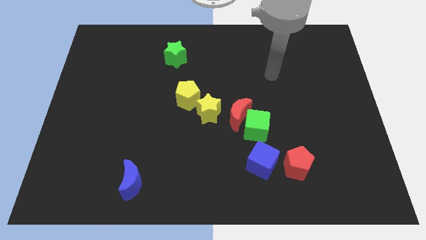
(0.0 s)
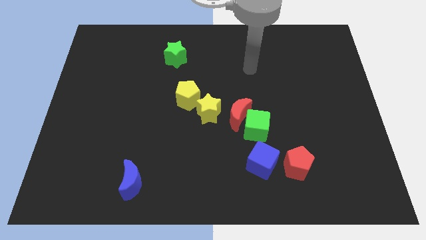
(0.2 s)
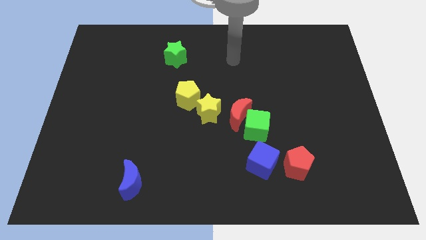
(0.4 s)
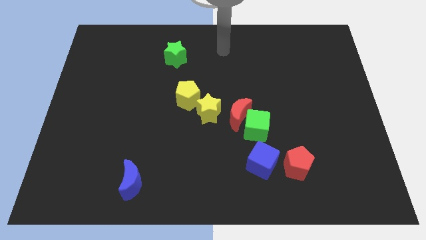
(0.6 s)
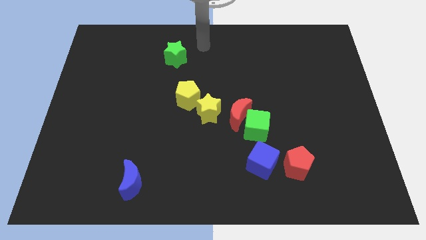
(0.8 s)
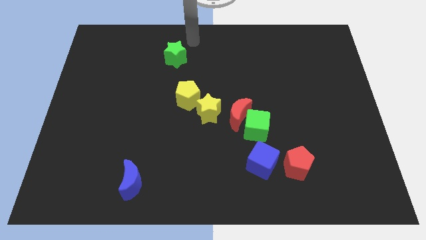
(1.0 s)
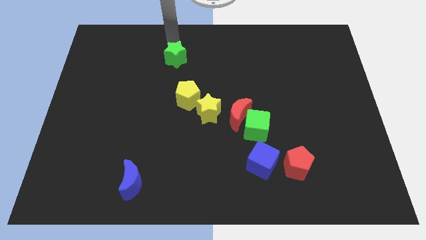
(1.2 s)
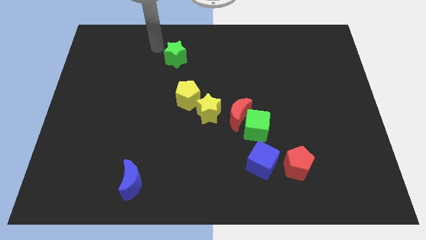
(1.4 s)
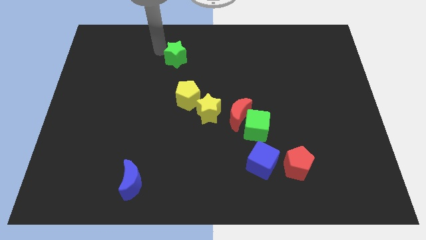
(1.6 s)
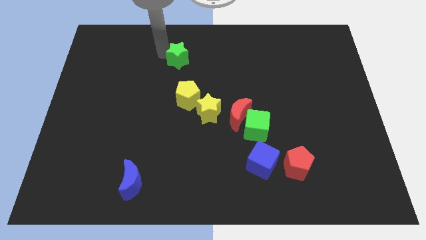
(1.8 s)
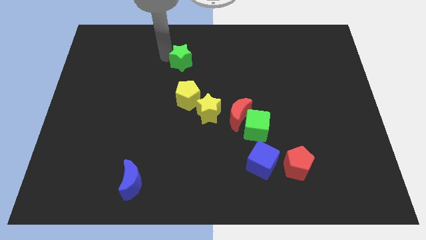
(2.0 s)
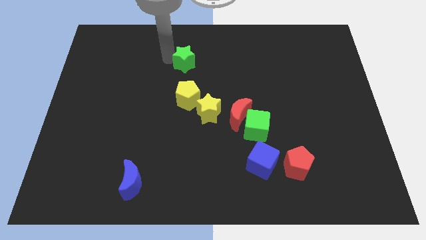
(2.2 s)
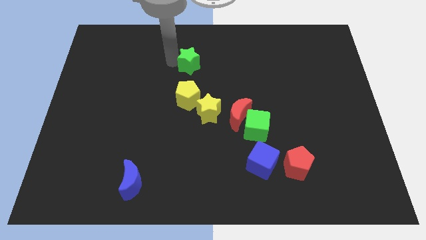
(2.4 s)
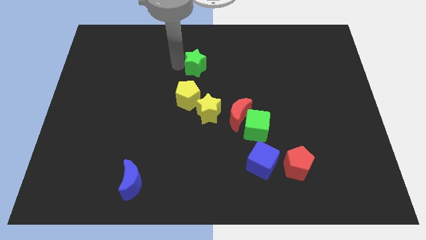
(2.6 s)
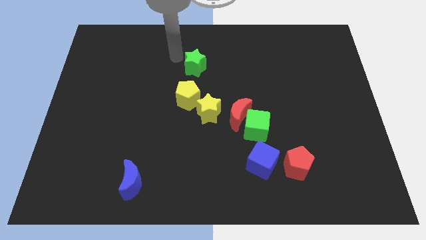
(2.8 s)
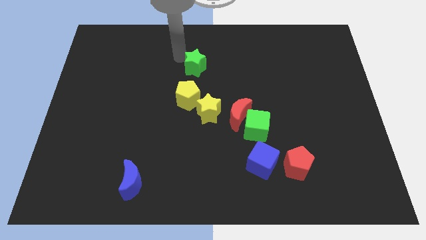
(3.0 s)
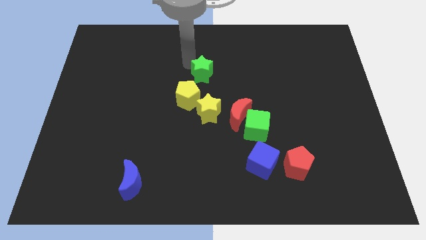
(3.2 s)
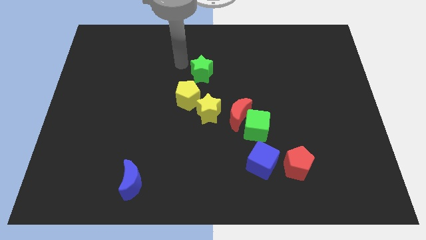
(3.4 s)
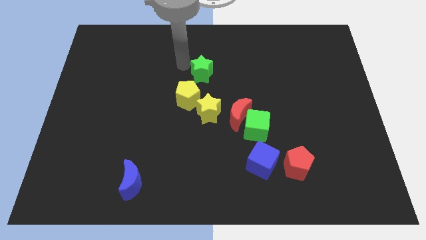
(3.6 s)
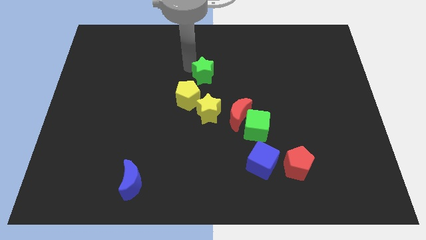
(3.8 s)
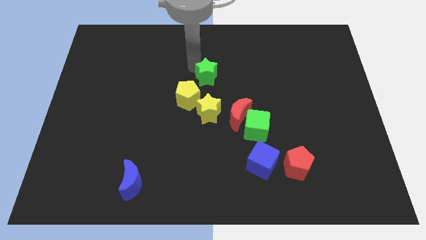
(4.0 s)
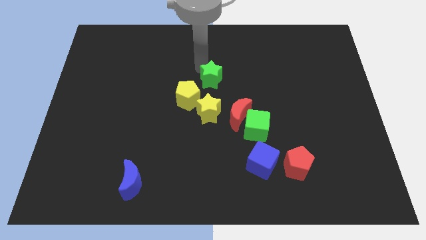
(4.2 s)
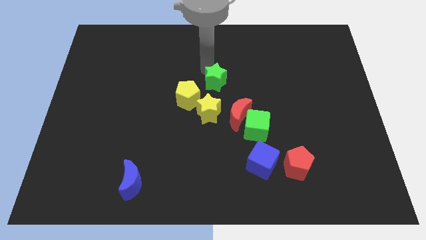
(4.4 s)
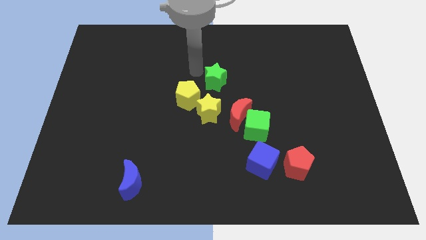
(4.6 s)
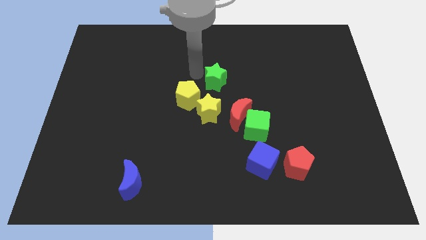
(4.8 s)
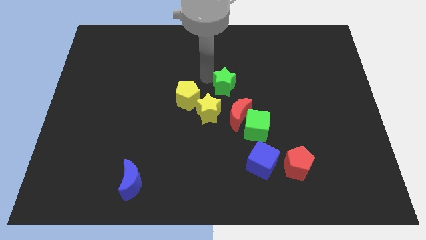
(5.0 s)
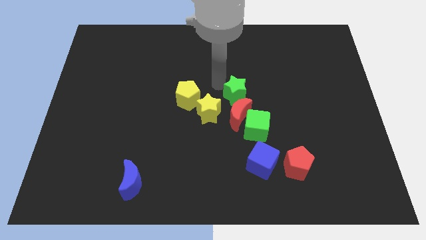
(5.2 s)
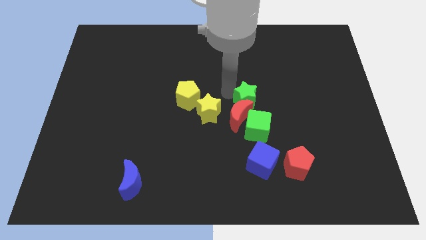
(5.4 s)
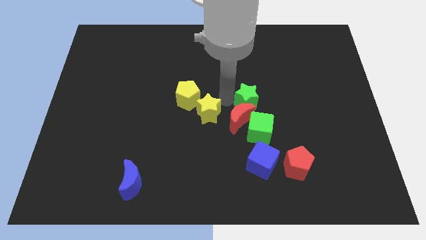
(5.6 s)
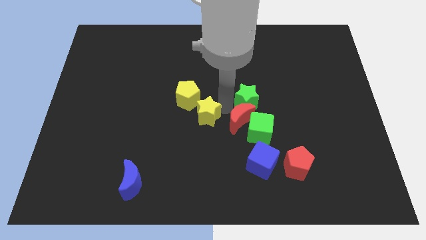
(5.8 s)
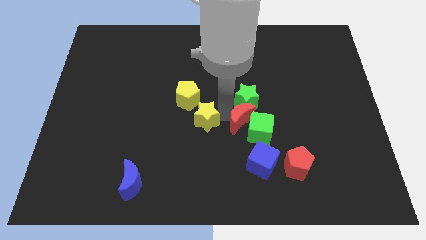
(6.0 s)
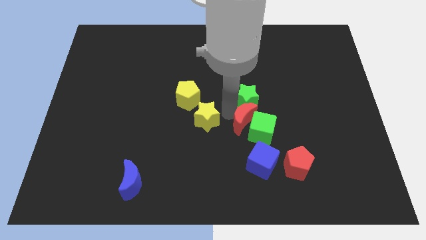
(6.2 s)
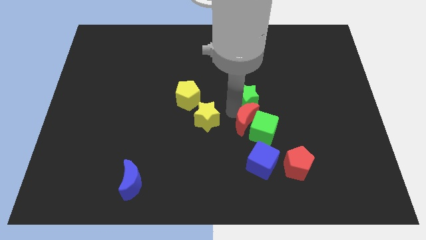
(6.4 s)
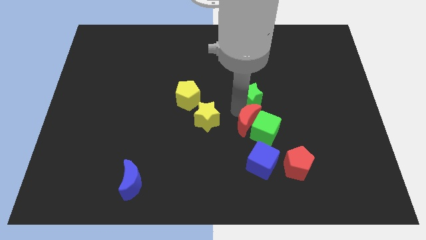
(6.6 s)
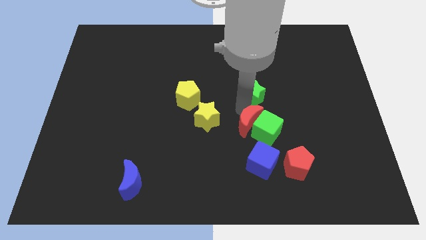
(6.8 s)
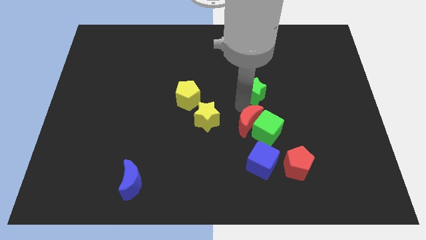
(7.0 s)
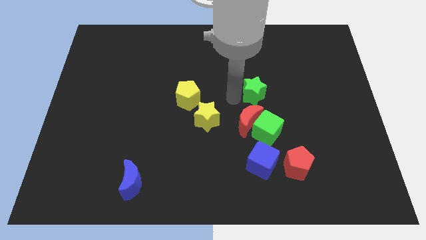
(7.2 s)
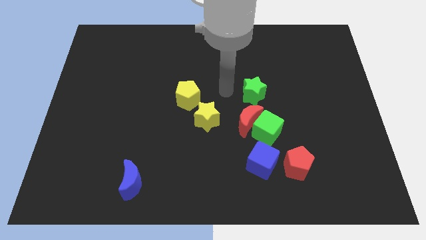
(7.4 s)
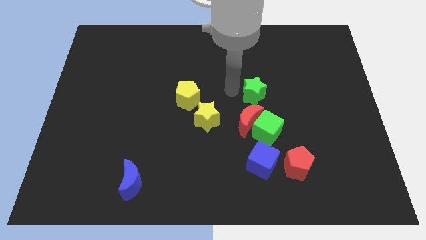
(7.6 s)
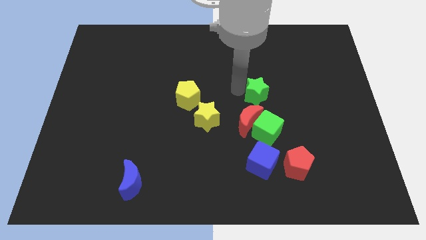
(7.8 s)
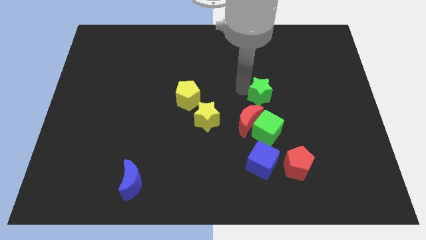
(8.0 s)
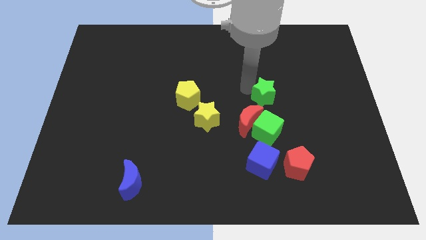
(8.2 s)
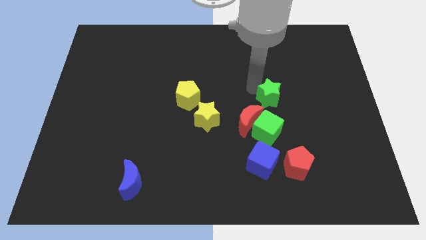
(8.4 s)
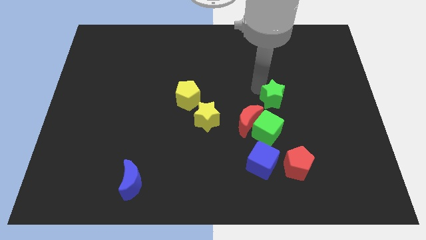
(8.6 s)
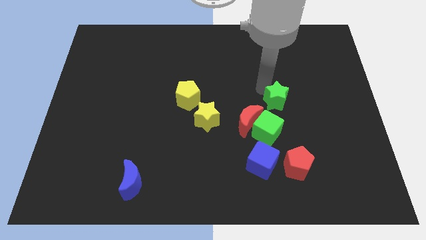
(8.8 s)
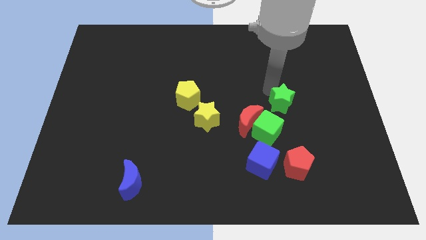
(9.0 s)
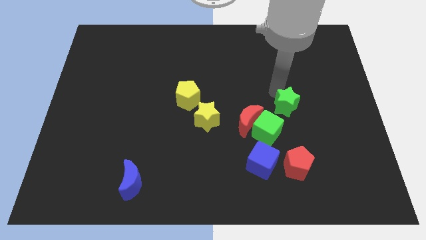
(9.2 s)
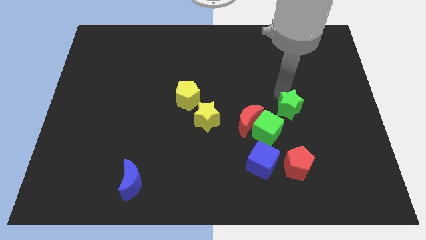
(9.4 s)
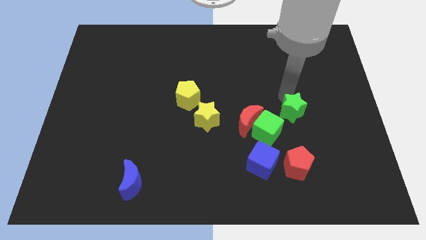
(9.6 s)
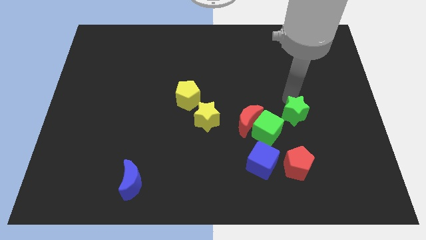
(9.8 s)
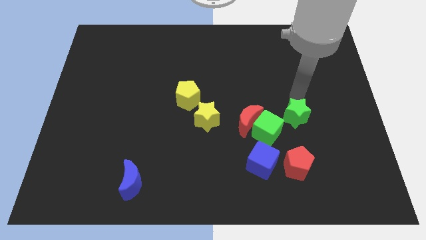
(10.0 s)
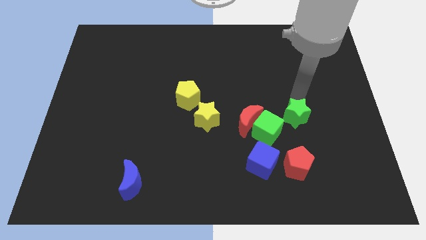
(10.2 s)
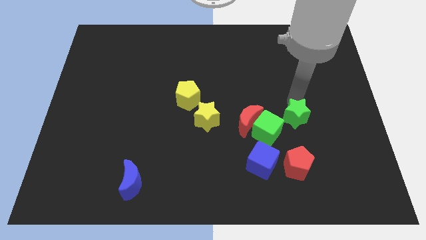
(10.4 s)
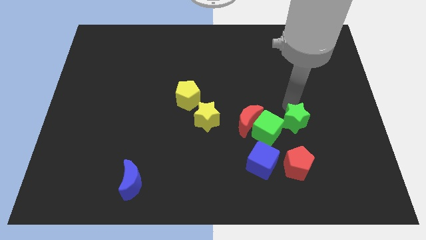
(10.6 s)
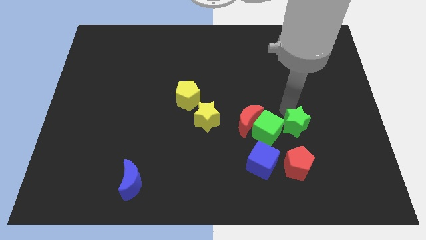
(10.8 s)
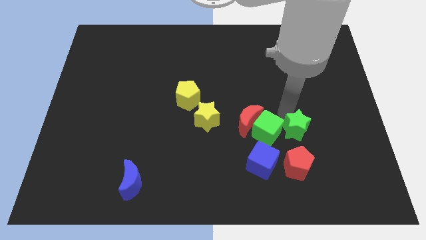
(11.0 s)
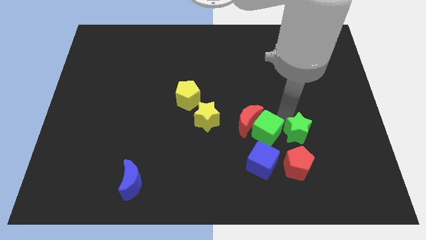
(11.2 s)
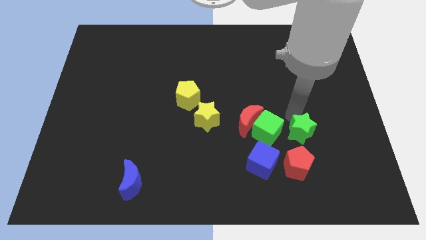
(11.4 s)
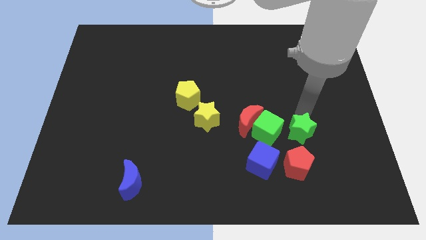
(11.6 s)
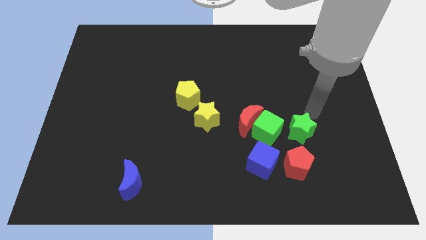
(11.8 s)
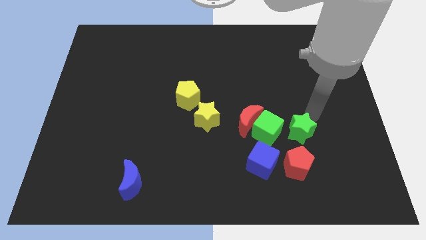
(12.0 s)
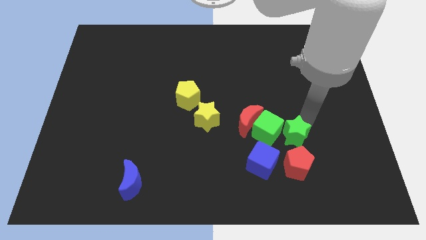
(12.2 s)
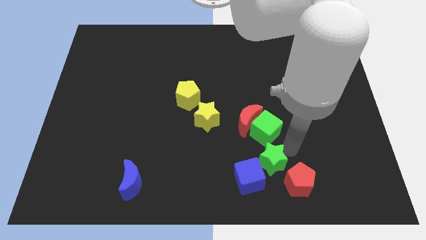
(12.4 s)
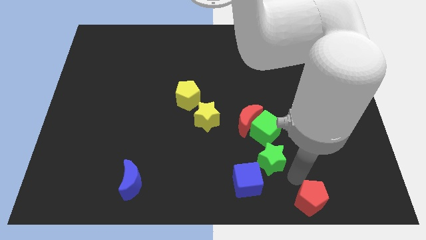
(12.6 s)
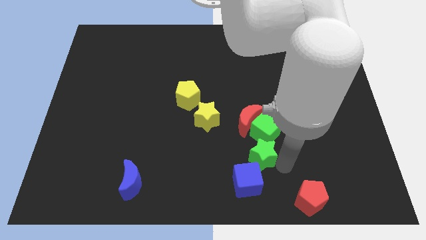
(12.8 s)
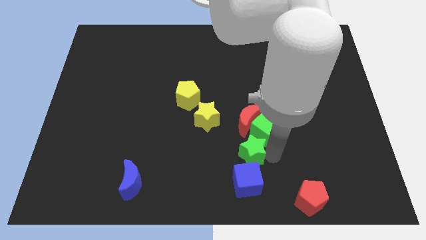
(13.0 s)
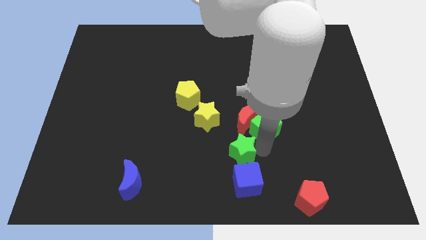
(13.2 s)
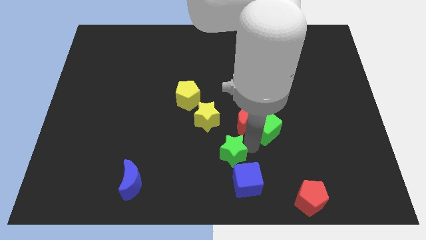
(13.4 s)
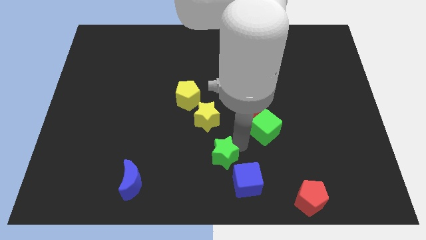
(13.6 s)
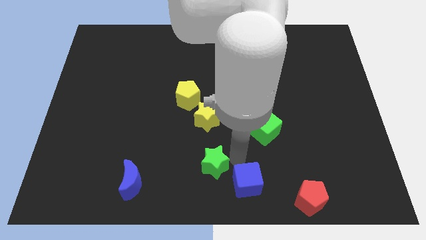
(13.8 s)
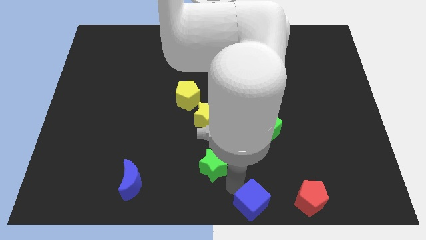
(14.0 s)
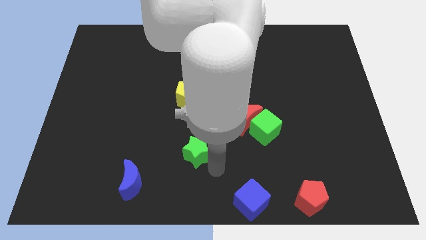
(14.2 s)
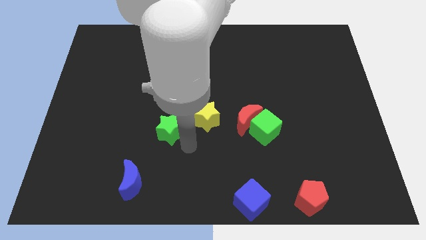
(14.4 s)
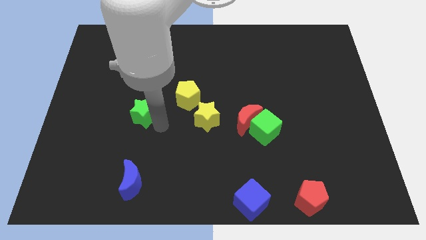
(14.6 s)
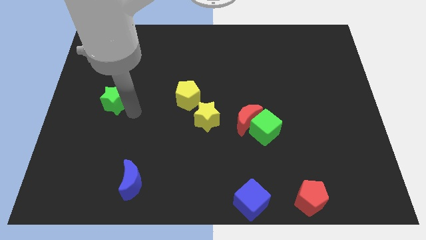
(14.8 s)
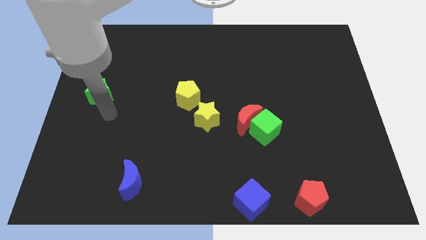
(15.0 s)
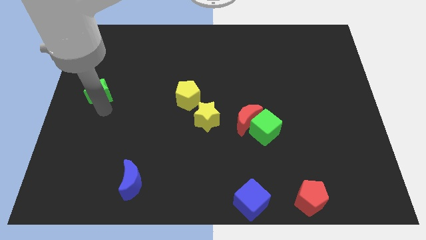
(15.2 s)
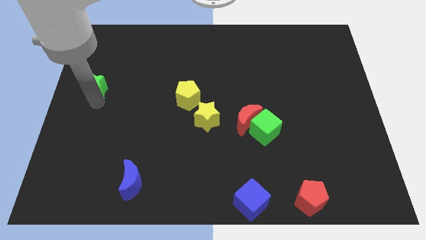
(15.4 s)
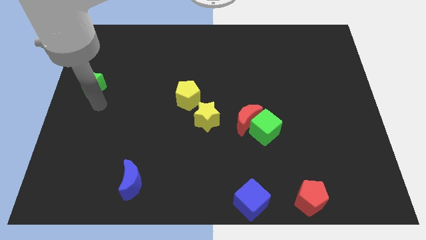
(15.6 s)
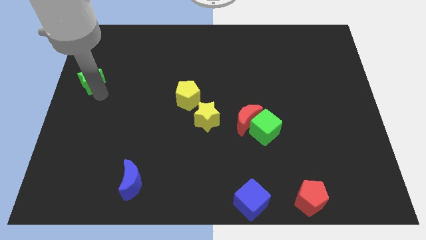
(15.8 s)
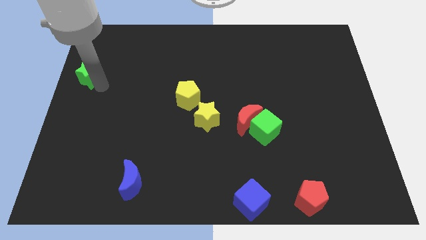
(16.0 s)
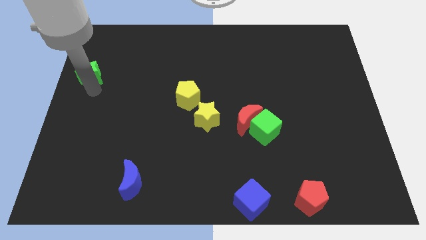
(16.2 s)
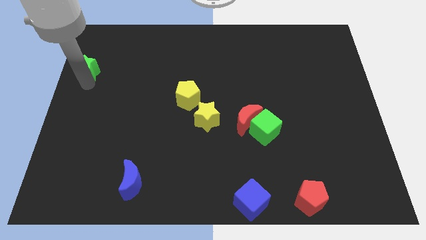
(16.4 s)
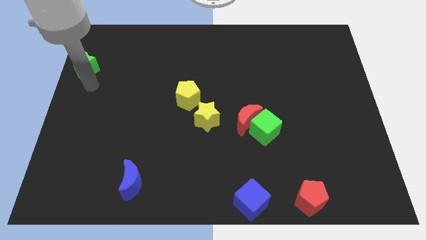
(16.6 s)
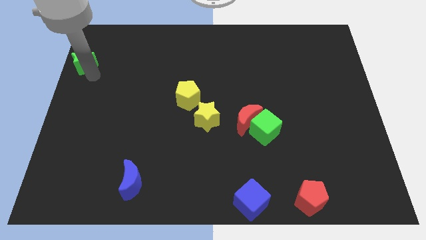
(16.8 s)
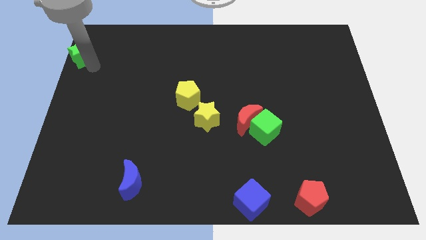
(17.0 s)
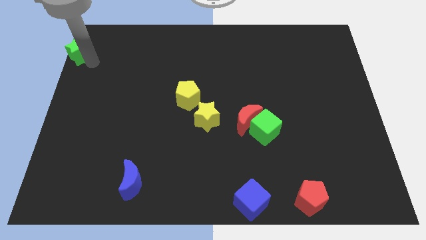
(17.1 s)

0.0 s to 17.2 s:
move the green star to the top left corner
